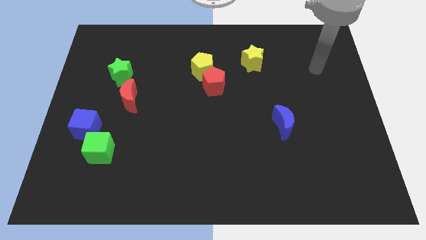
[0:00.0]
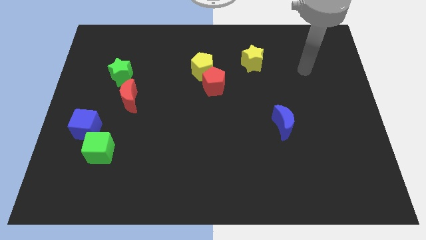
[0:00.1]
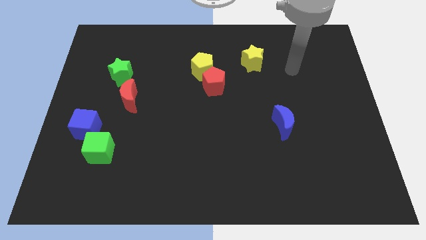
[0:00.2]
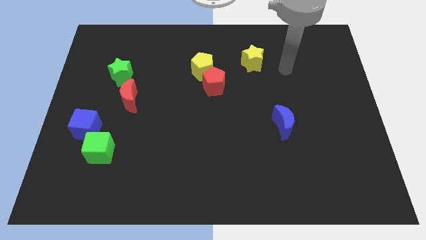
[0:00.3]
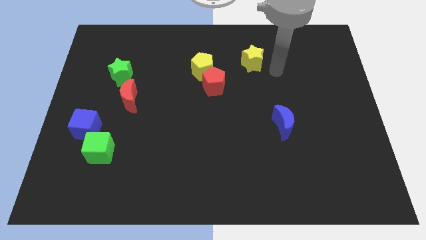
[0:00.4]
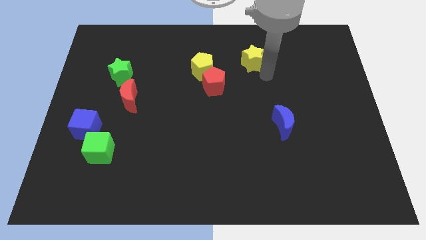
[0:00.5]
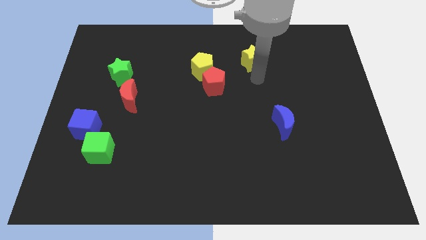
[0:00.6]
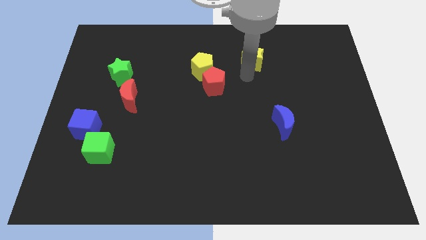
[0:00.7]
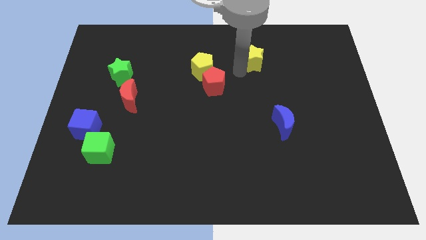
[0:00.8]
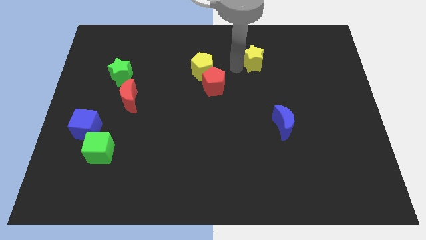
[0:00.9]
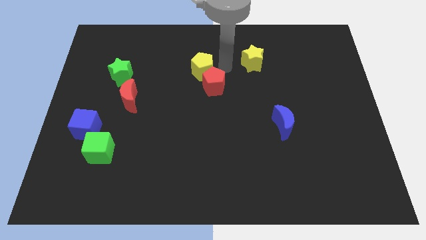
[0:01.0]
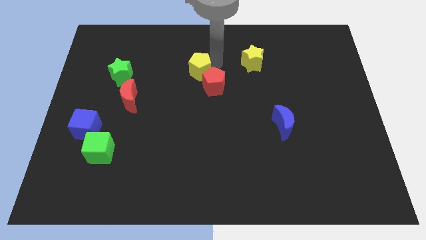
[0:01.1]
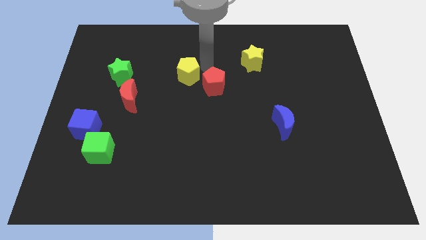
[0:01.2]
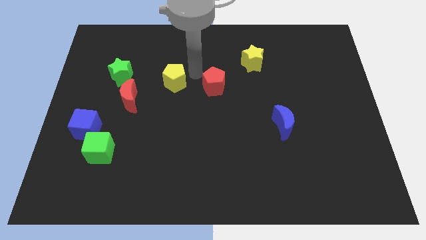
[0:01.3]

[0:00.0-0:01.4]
pull the red pentagon apart from the yellow pentagon

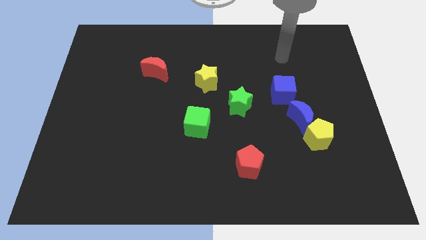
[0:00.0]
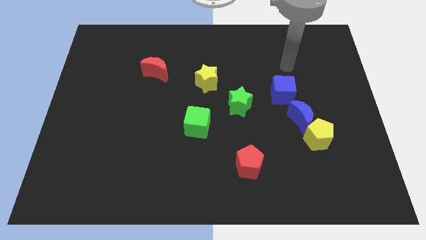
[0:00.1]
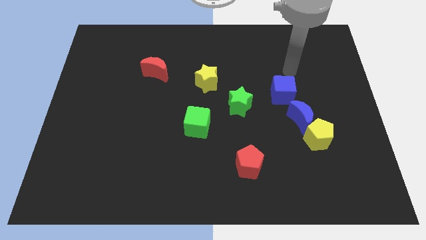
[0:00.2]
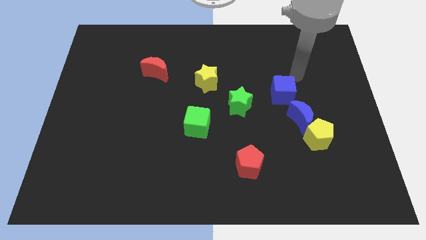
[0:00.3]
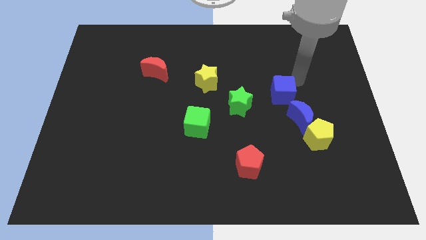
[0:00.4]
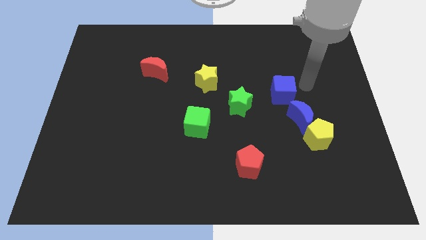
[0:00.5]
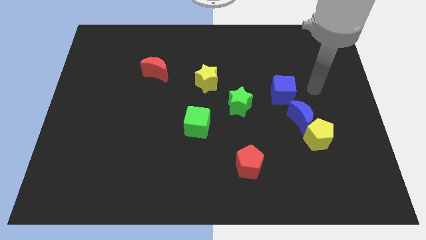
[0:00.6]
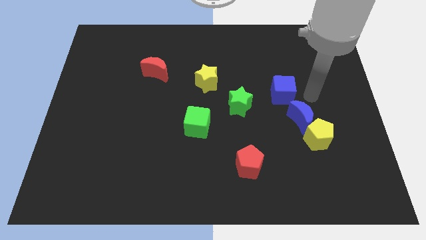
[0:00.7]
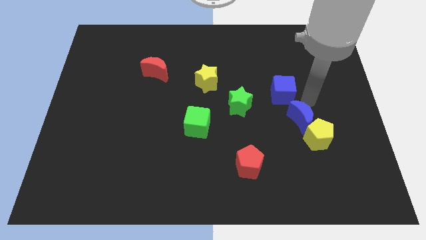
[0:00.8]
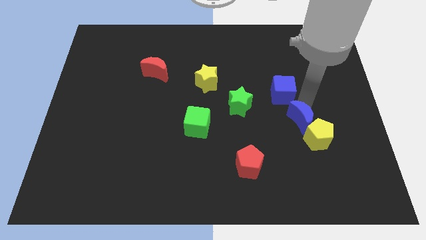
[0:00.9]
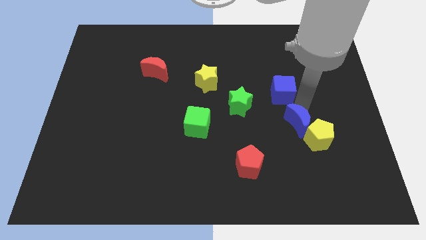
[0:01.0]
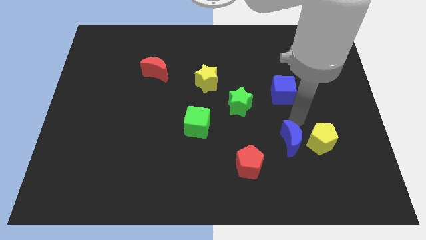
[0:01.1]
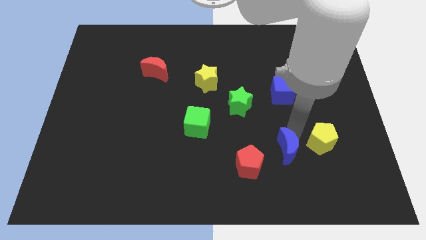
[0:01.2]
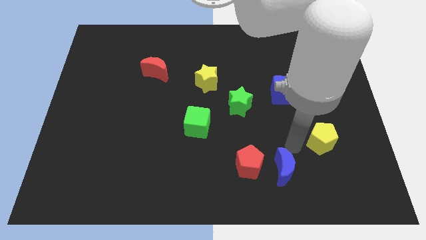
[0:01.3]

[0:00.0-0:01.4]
move the yellow pentagon away from the blue moon

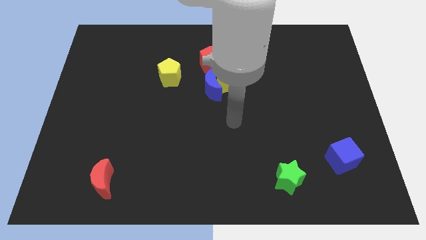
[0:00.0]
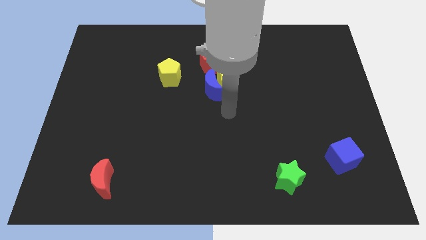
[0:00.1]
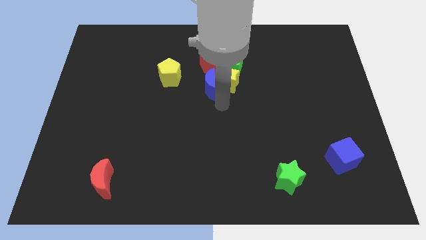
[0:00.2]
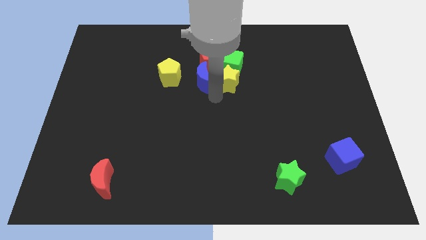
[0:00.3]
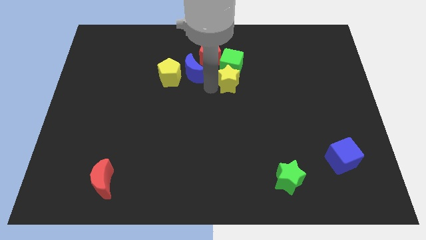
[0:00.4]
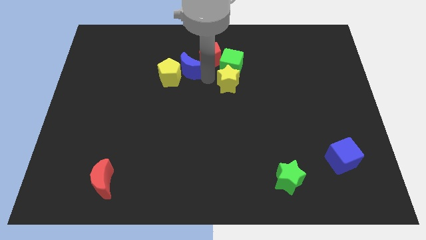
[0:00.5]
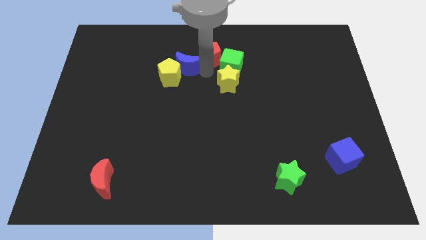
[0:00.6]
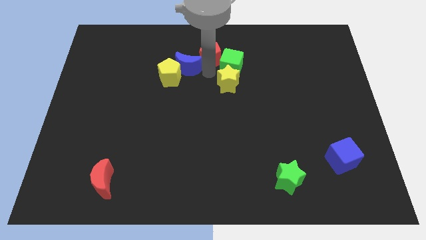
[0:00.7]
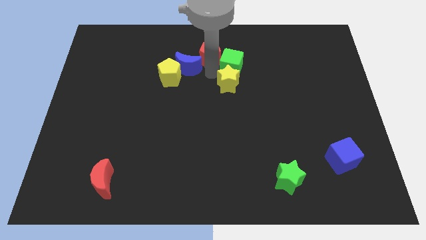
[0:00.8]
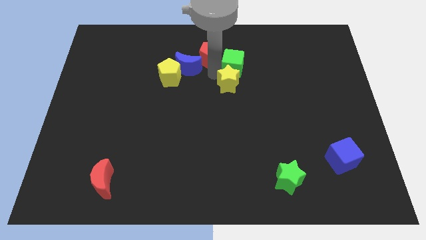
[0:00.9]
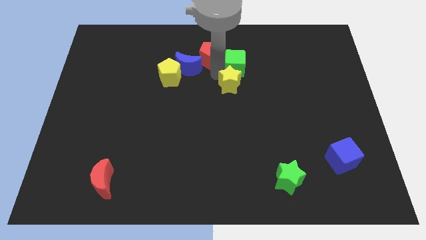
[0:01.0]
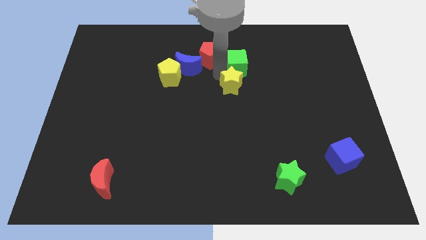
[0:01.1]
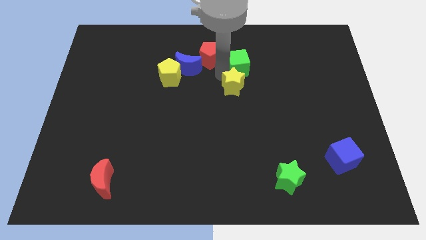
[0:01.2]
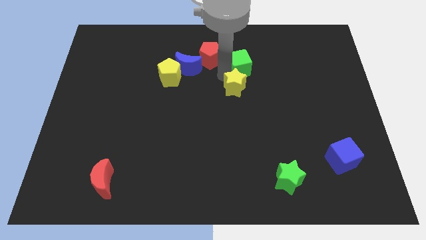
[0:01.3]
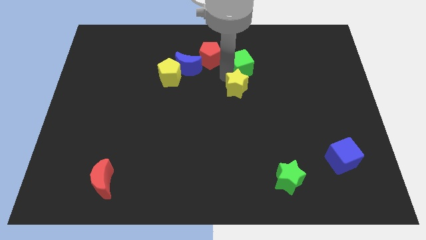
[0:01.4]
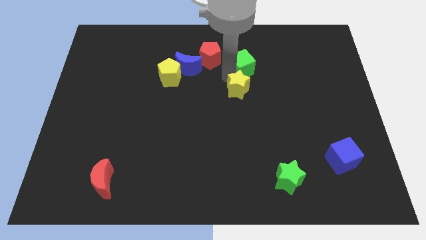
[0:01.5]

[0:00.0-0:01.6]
move the yellow star away from the clump

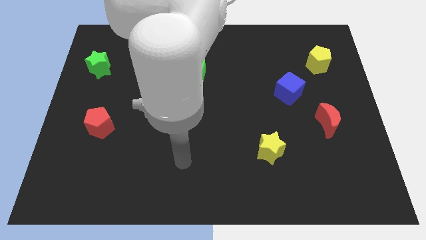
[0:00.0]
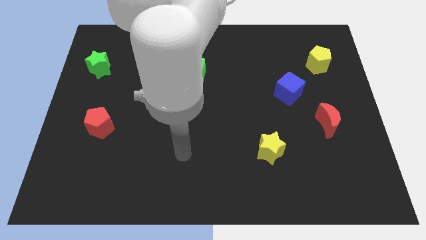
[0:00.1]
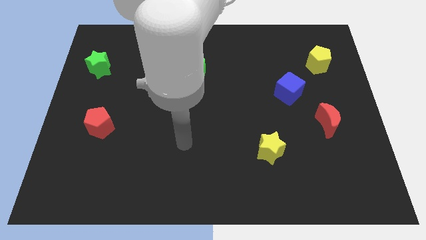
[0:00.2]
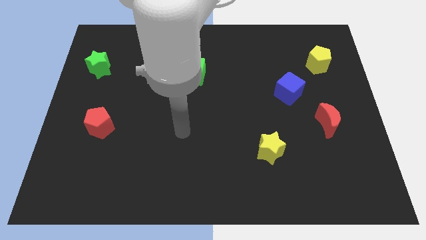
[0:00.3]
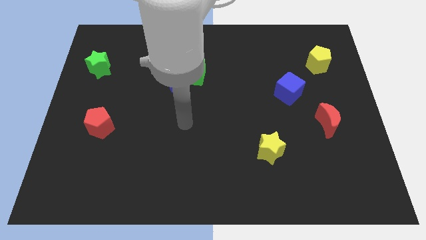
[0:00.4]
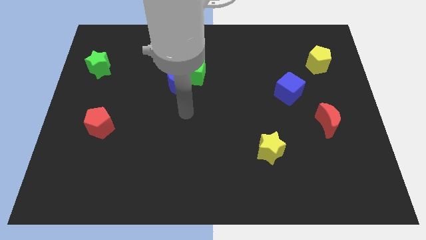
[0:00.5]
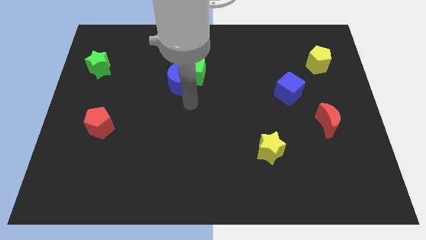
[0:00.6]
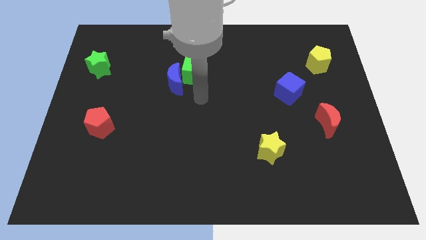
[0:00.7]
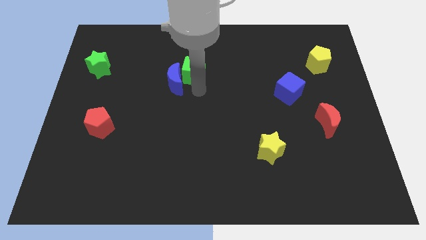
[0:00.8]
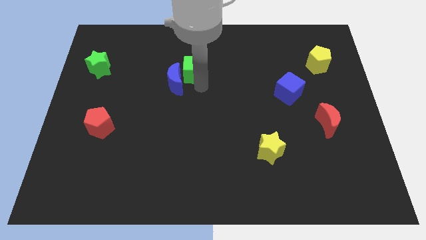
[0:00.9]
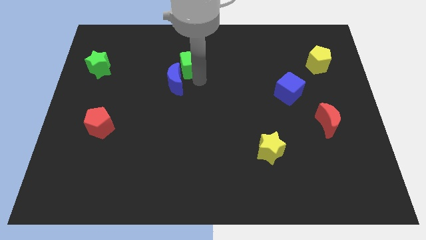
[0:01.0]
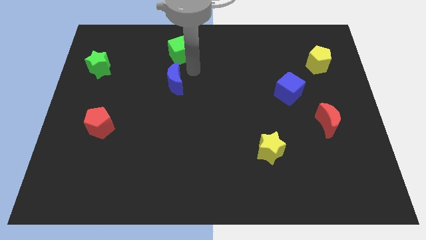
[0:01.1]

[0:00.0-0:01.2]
move the blue moon away from the green cube

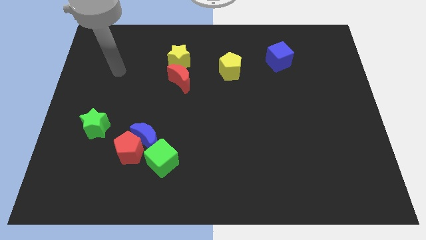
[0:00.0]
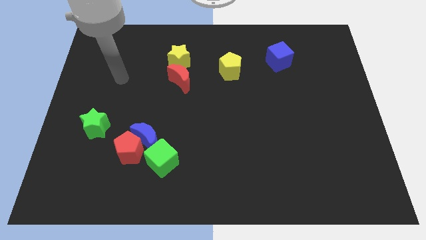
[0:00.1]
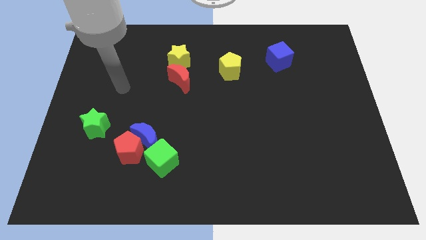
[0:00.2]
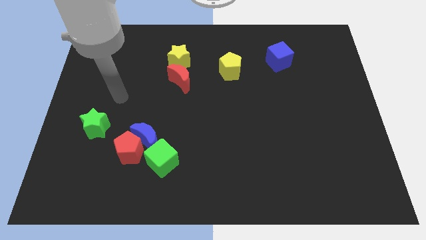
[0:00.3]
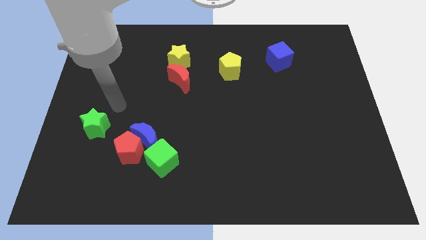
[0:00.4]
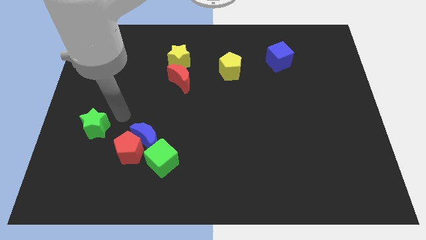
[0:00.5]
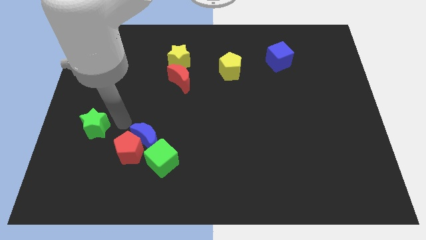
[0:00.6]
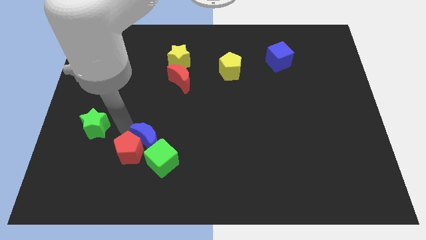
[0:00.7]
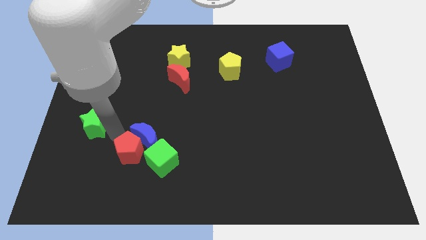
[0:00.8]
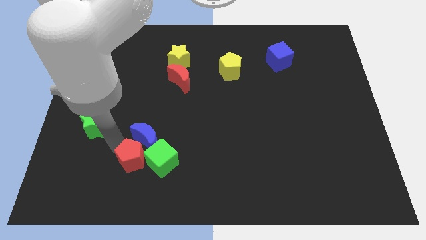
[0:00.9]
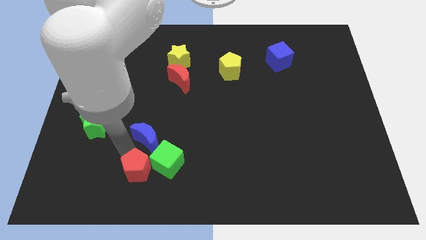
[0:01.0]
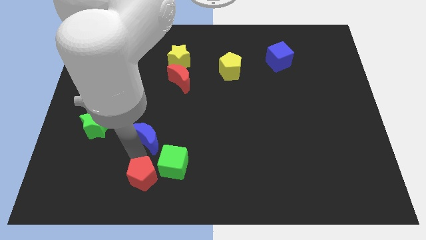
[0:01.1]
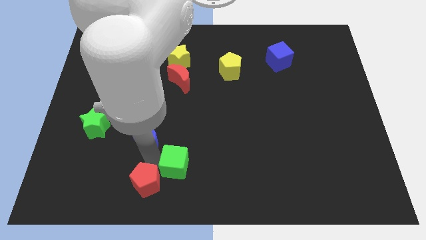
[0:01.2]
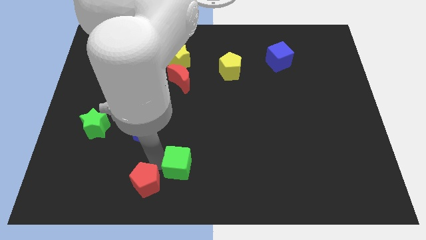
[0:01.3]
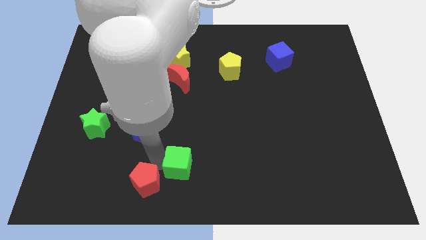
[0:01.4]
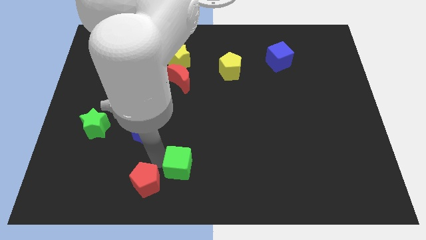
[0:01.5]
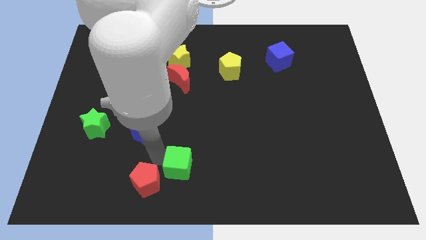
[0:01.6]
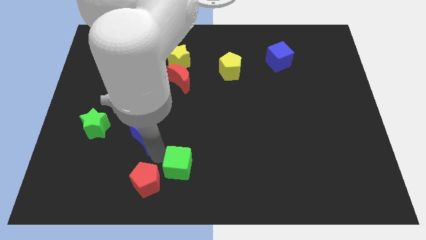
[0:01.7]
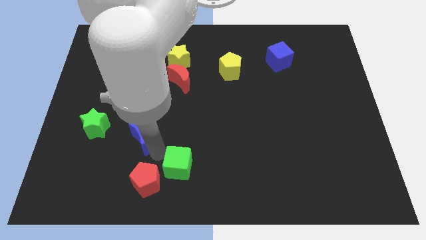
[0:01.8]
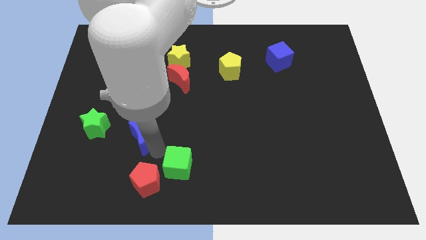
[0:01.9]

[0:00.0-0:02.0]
separate the blue moon from the red pentagon and green cube

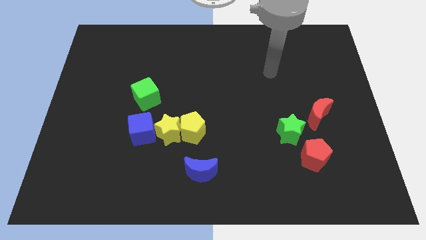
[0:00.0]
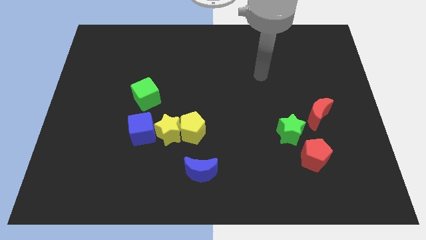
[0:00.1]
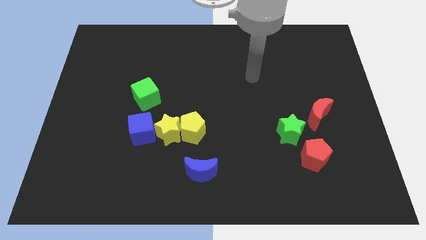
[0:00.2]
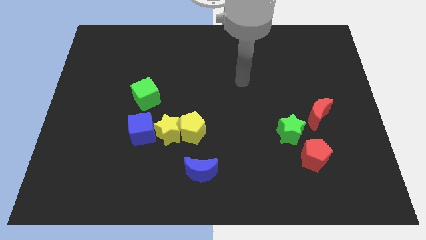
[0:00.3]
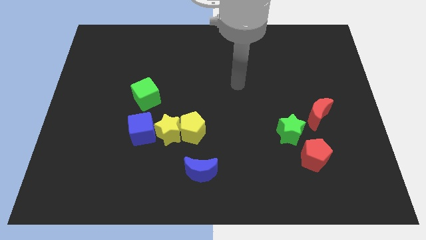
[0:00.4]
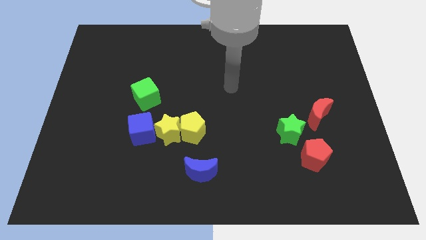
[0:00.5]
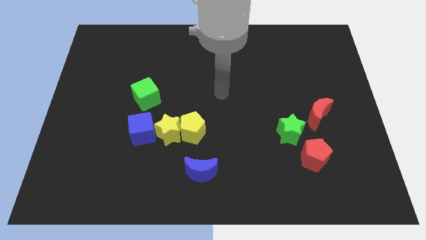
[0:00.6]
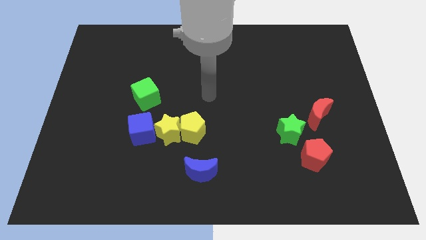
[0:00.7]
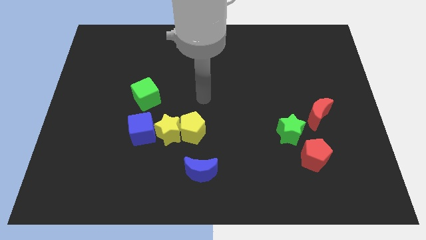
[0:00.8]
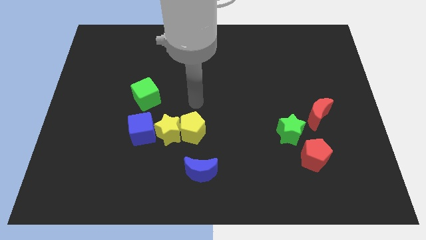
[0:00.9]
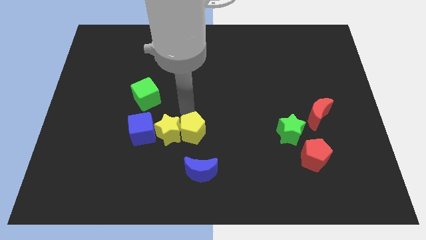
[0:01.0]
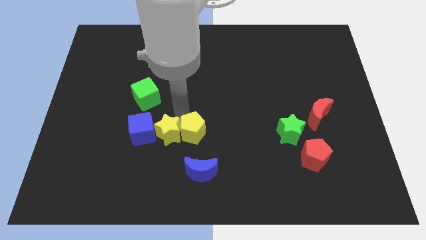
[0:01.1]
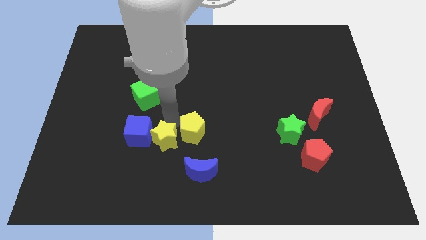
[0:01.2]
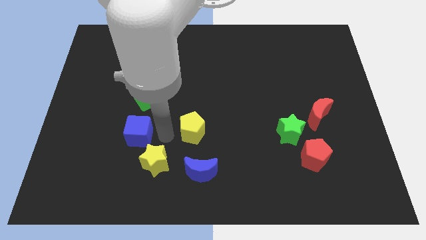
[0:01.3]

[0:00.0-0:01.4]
move the yellow pentagon away from the yellow star

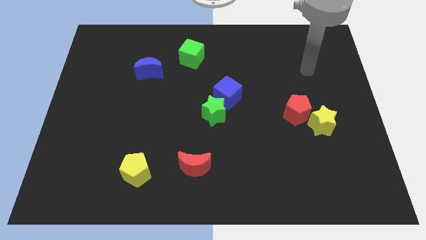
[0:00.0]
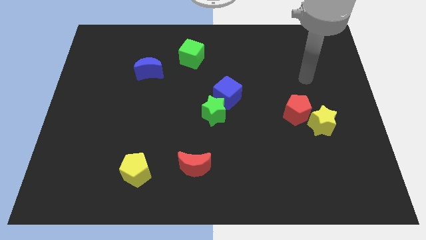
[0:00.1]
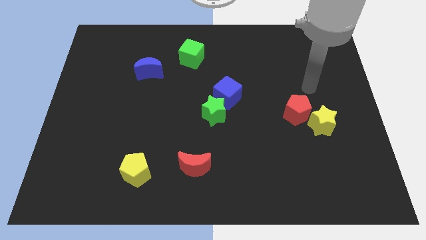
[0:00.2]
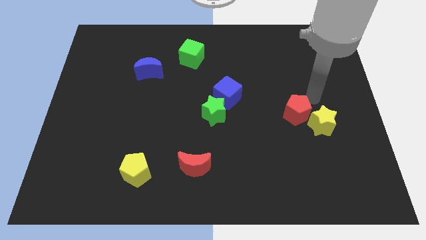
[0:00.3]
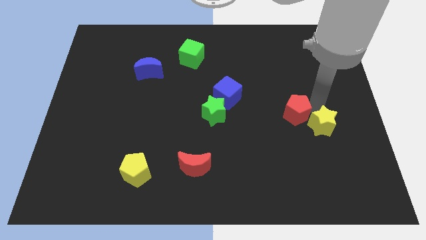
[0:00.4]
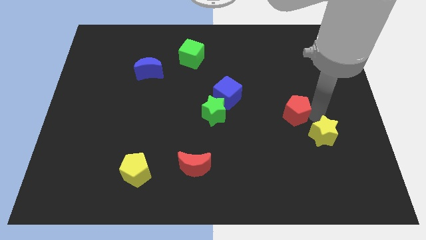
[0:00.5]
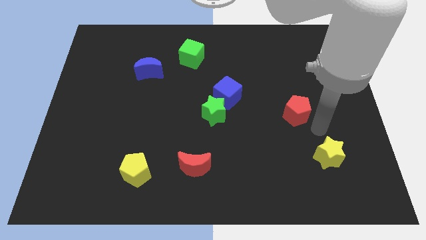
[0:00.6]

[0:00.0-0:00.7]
pull the red pentagon apart from the yellow star
